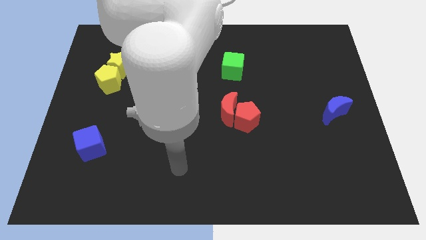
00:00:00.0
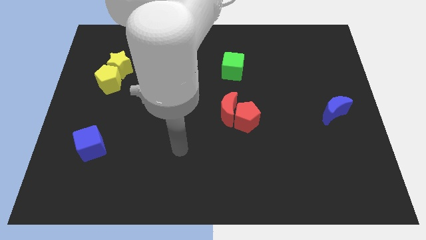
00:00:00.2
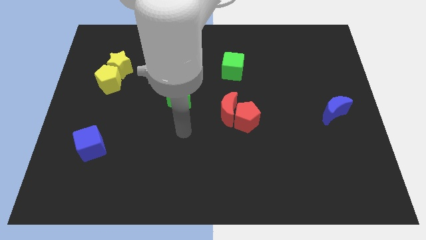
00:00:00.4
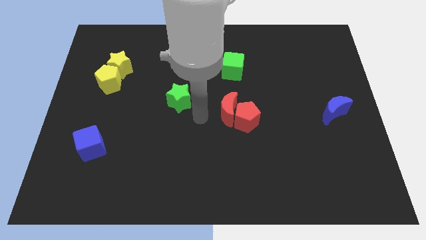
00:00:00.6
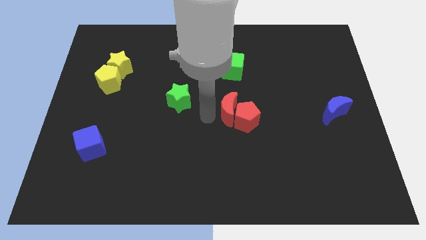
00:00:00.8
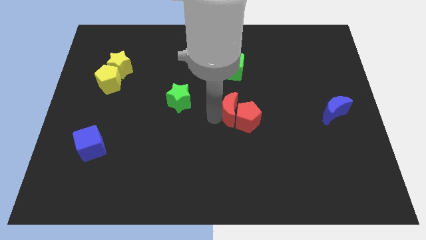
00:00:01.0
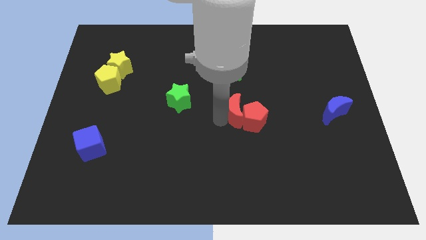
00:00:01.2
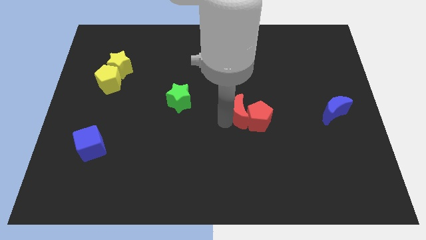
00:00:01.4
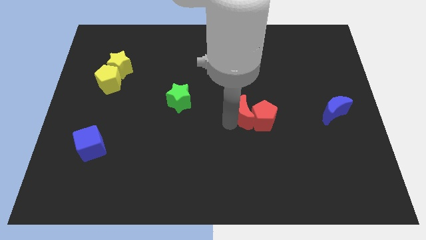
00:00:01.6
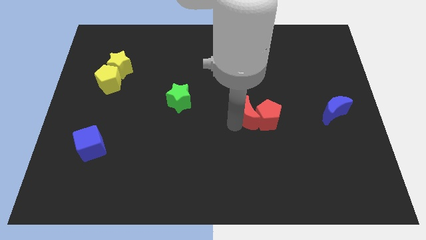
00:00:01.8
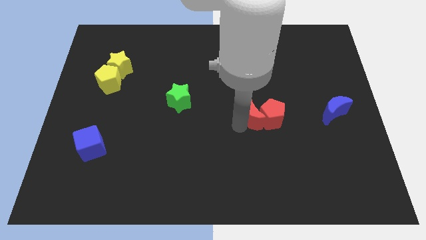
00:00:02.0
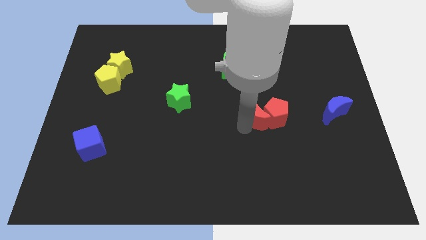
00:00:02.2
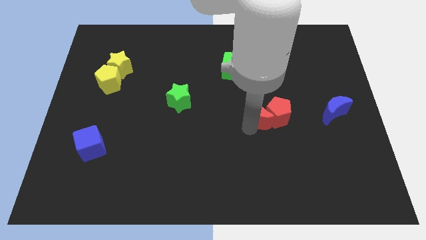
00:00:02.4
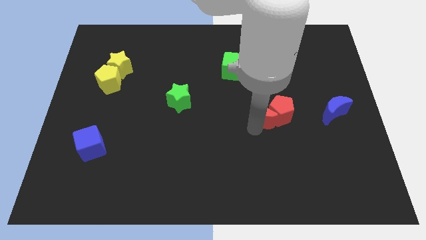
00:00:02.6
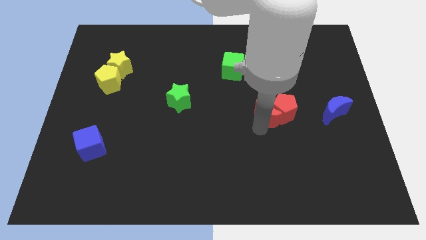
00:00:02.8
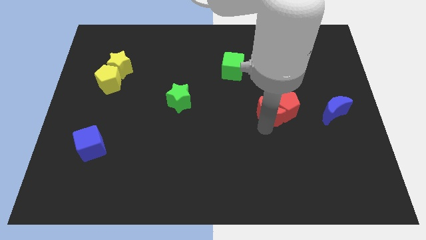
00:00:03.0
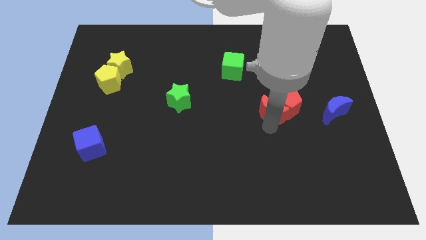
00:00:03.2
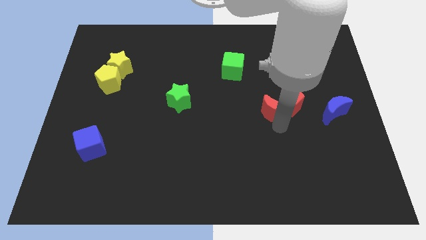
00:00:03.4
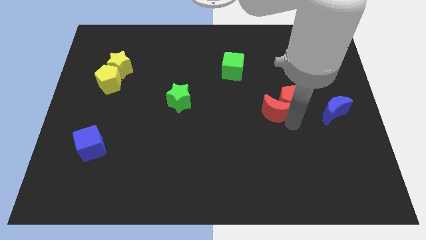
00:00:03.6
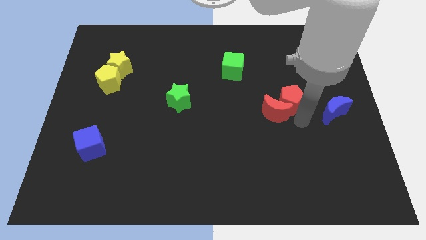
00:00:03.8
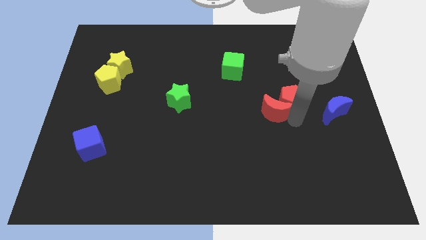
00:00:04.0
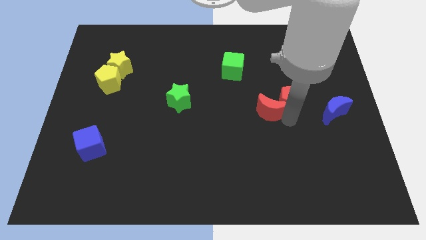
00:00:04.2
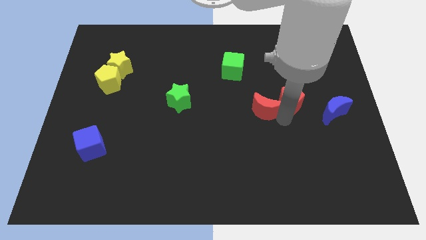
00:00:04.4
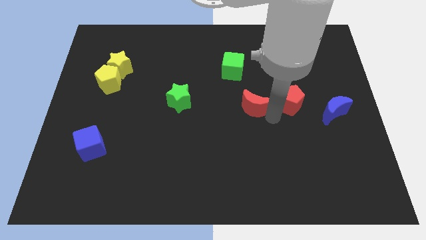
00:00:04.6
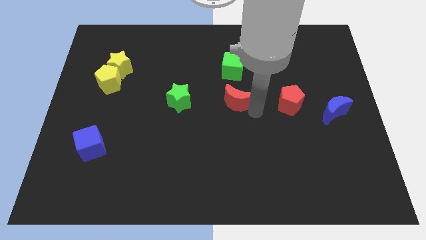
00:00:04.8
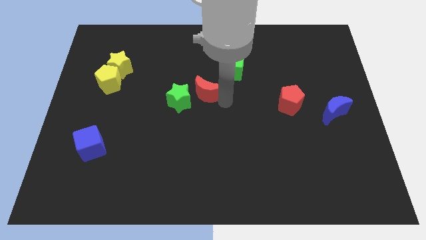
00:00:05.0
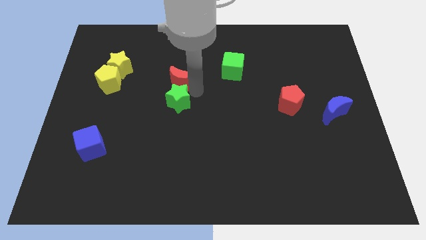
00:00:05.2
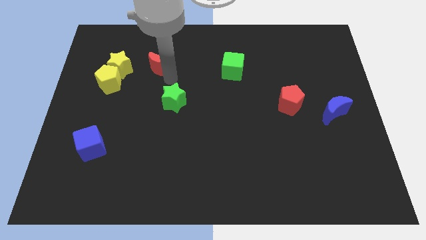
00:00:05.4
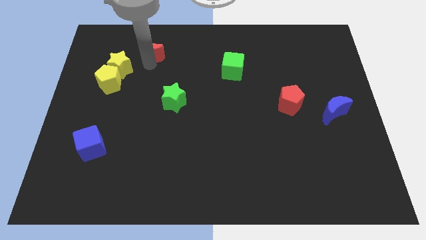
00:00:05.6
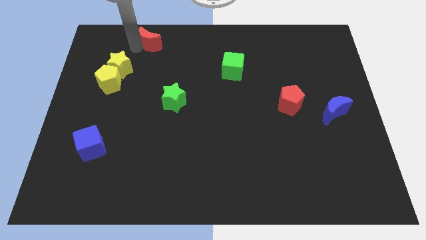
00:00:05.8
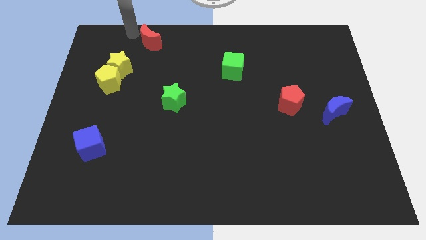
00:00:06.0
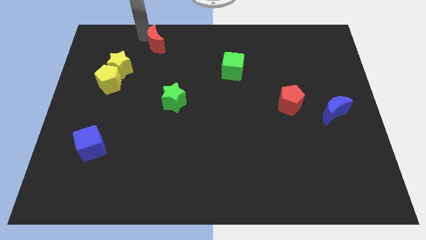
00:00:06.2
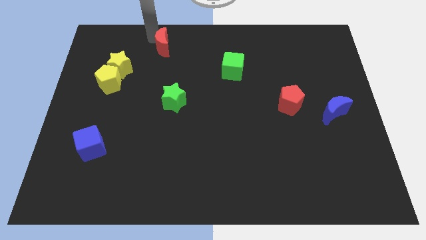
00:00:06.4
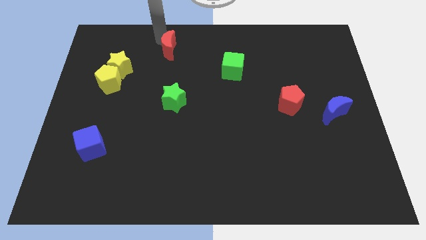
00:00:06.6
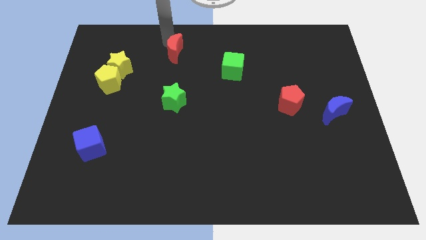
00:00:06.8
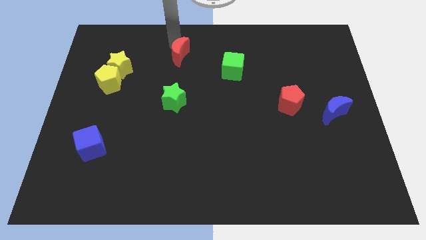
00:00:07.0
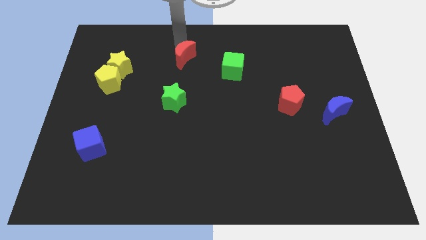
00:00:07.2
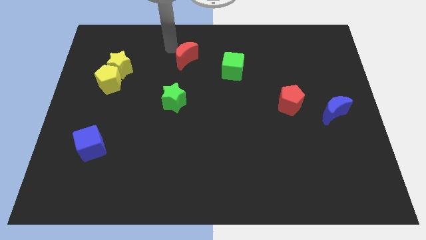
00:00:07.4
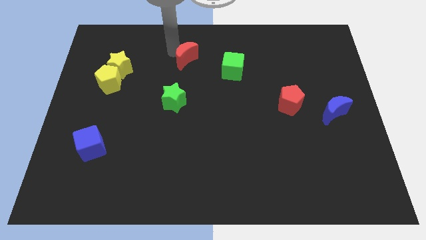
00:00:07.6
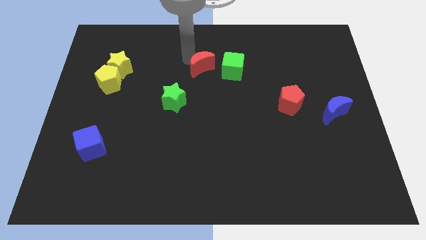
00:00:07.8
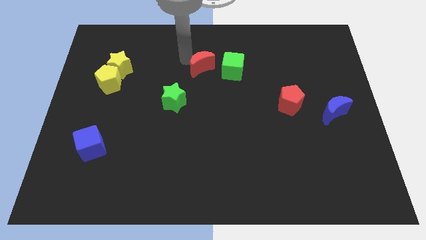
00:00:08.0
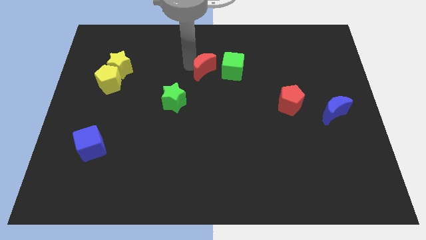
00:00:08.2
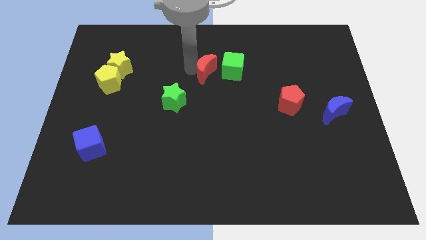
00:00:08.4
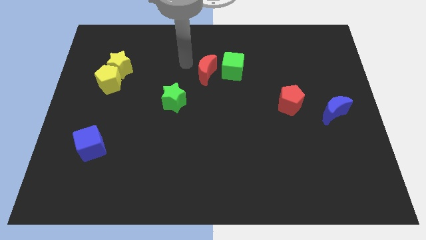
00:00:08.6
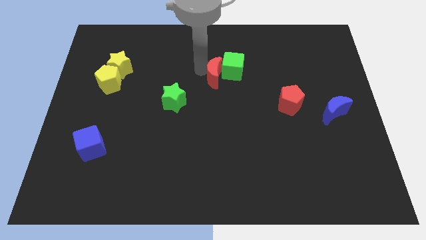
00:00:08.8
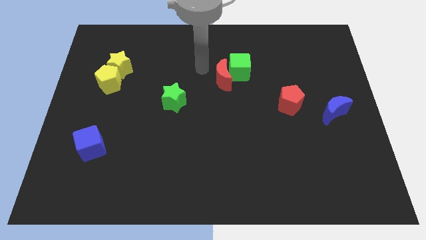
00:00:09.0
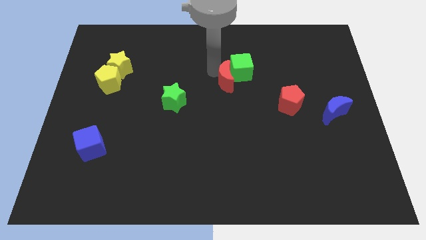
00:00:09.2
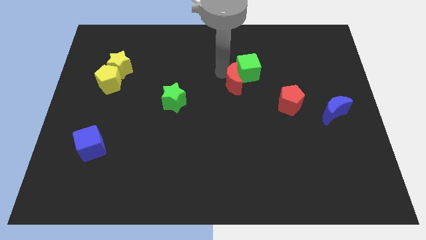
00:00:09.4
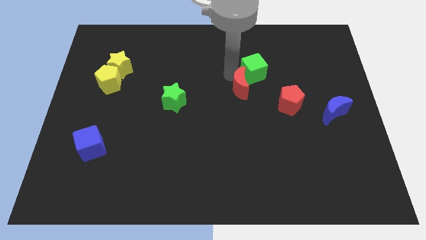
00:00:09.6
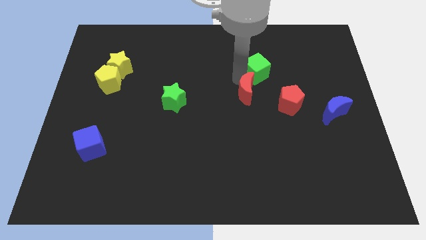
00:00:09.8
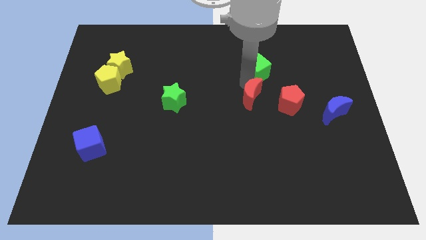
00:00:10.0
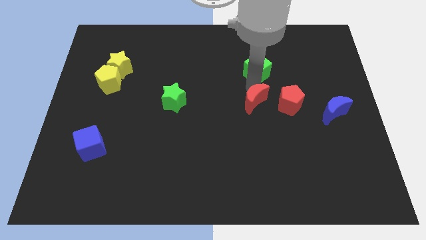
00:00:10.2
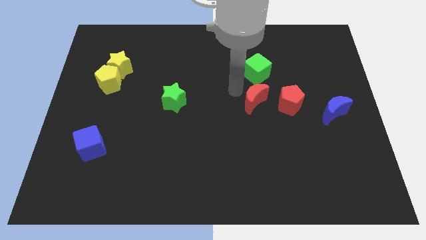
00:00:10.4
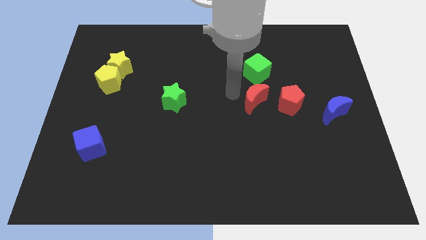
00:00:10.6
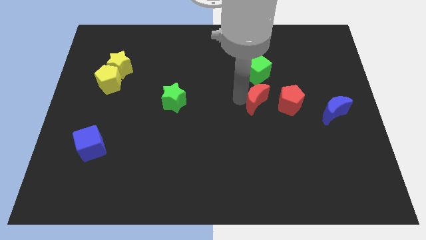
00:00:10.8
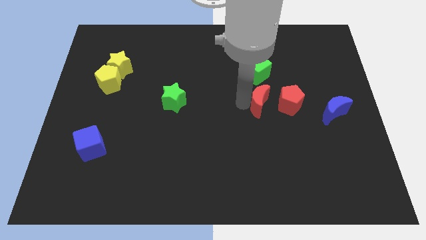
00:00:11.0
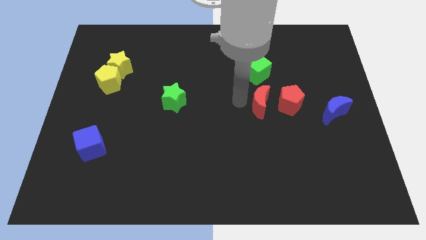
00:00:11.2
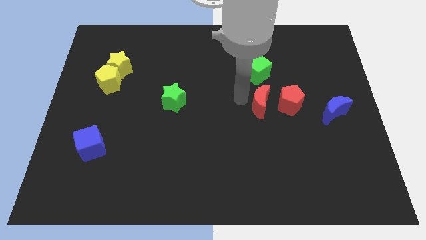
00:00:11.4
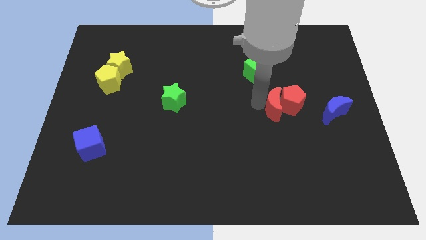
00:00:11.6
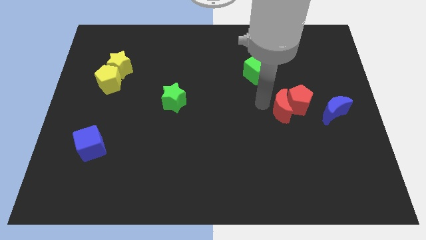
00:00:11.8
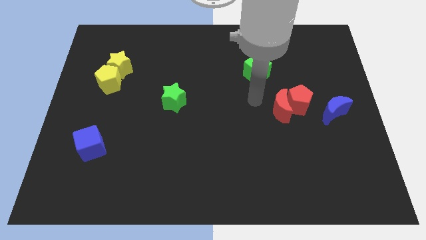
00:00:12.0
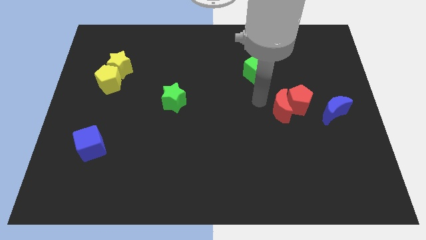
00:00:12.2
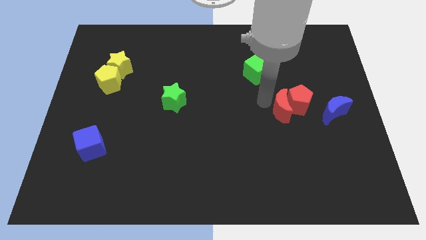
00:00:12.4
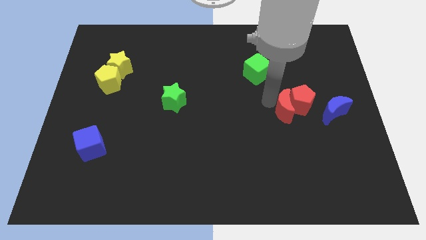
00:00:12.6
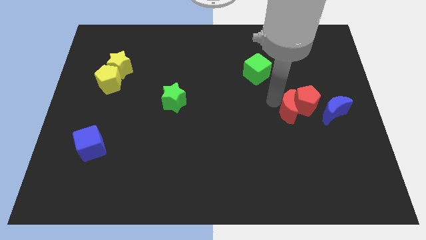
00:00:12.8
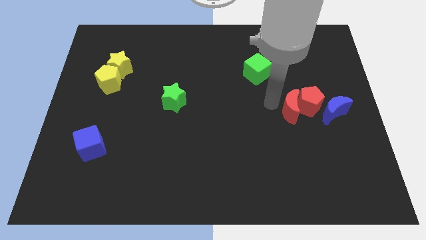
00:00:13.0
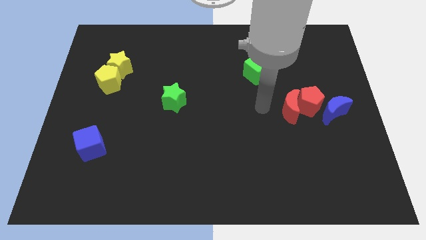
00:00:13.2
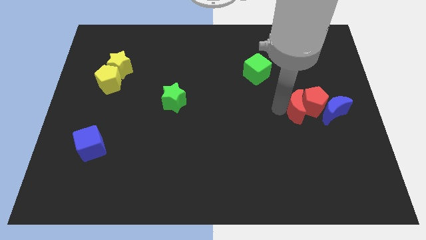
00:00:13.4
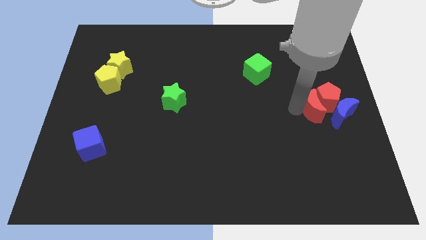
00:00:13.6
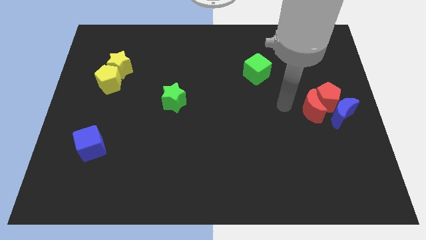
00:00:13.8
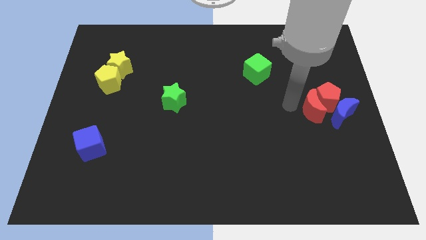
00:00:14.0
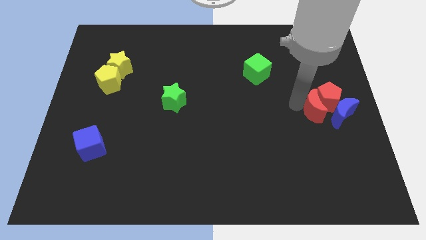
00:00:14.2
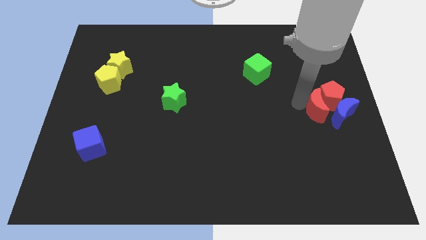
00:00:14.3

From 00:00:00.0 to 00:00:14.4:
push the red moon next to the blue moon

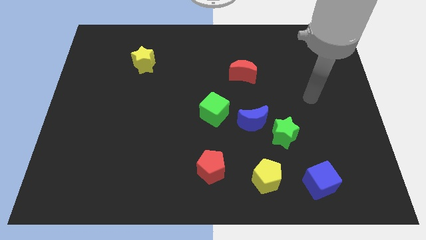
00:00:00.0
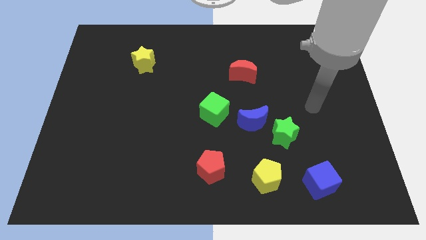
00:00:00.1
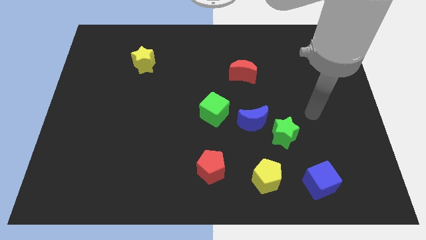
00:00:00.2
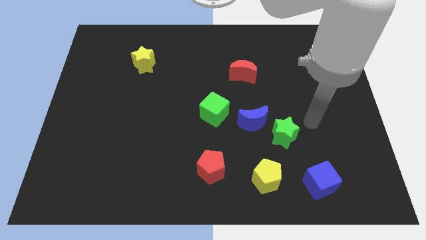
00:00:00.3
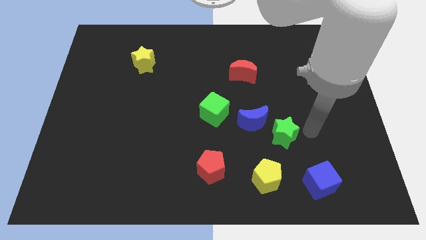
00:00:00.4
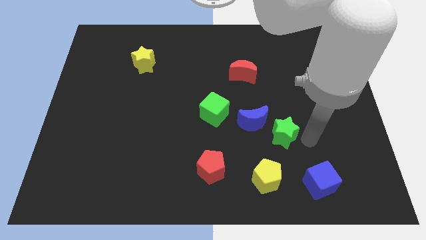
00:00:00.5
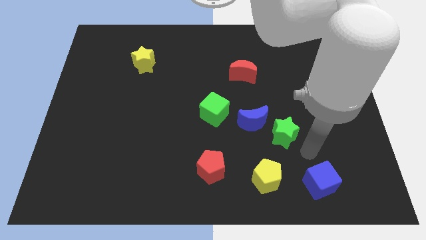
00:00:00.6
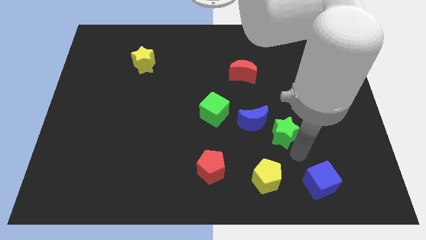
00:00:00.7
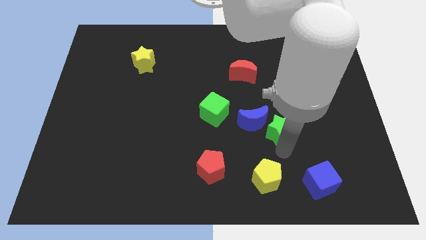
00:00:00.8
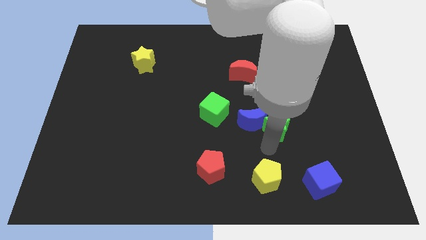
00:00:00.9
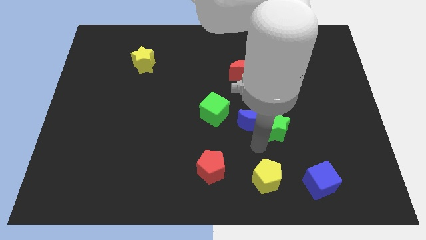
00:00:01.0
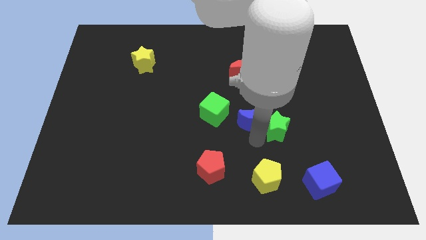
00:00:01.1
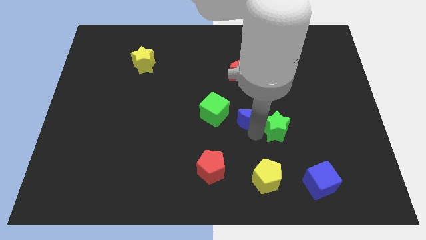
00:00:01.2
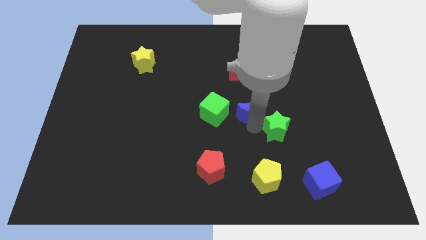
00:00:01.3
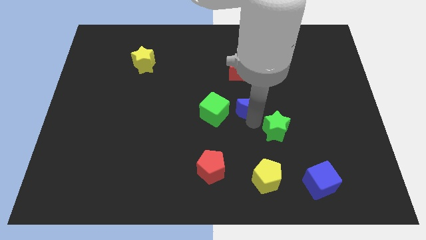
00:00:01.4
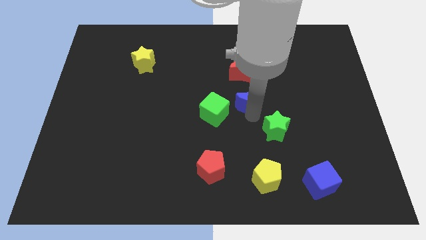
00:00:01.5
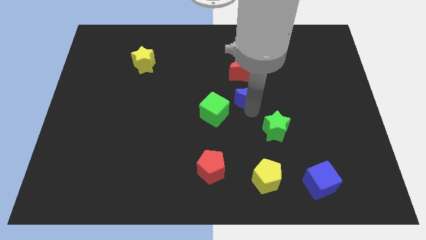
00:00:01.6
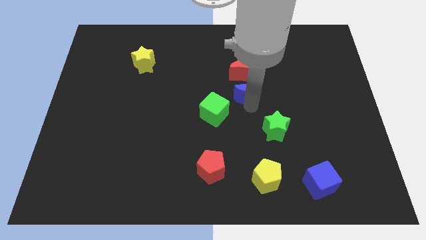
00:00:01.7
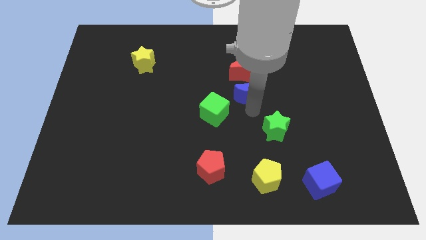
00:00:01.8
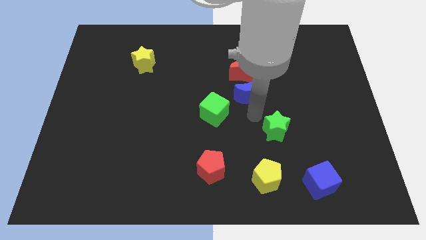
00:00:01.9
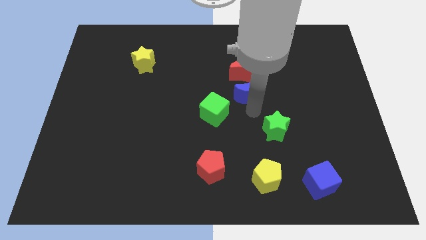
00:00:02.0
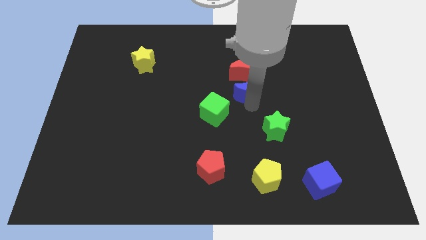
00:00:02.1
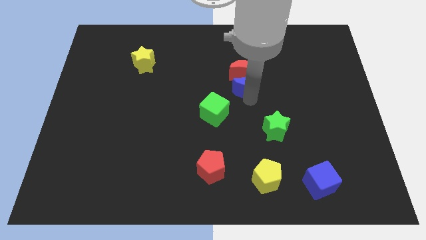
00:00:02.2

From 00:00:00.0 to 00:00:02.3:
slide the blue moon towards the red moon
